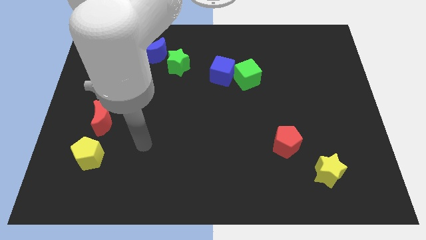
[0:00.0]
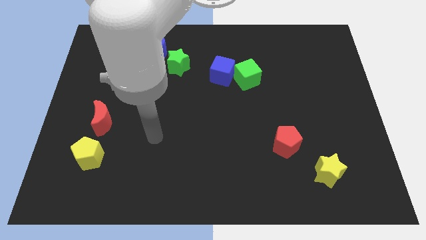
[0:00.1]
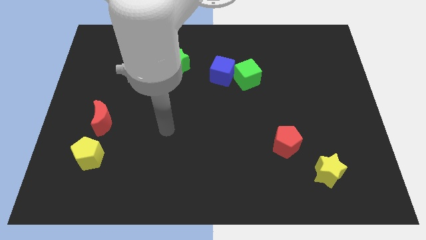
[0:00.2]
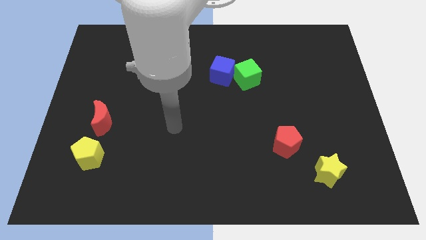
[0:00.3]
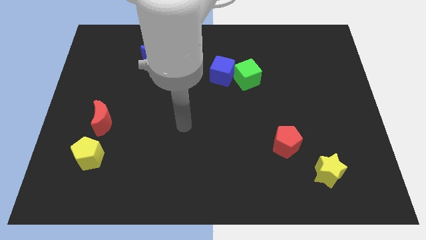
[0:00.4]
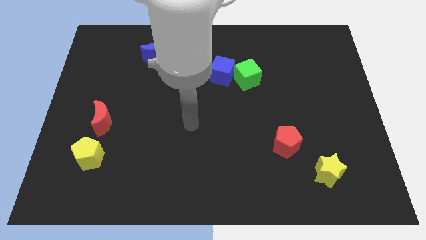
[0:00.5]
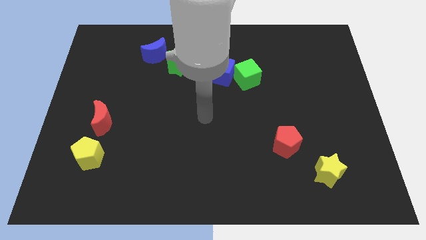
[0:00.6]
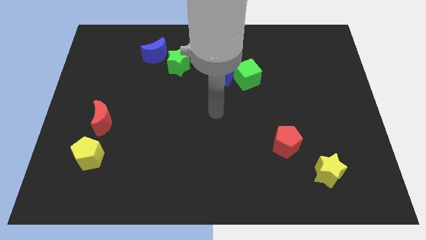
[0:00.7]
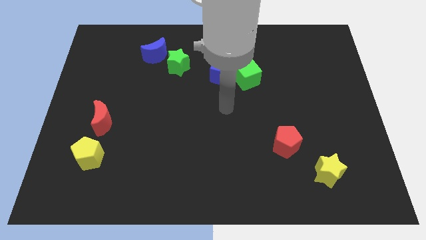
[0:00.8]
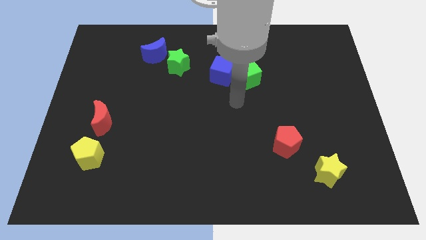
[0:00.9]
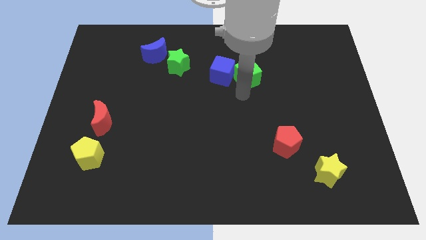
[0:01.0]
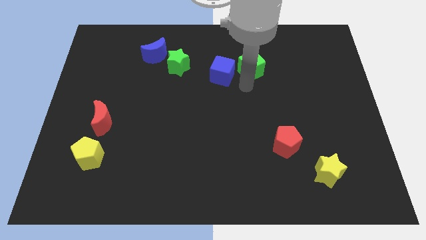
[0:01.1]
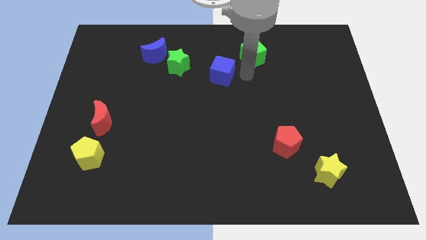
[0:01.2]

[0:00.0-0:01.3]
pull the blue cube apart from the green cube

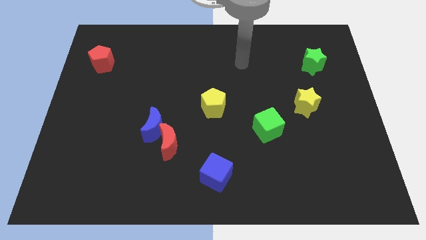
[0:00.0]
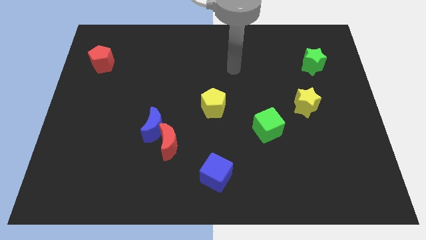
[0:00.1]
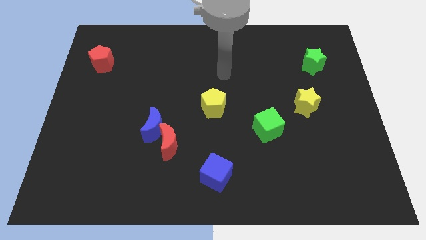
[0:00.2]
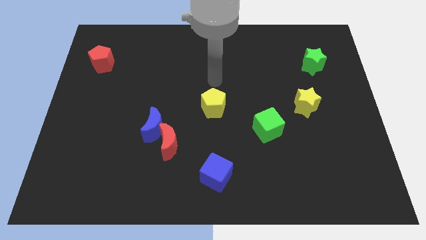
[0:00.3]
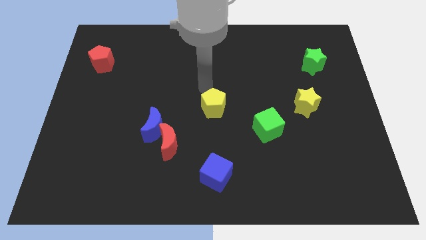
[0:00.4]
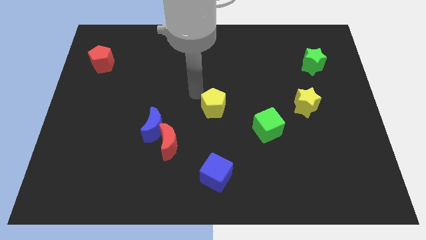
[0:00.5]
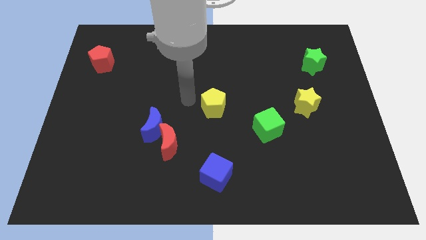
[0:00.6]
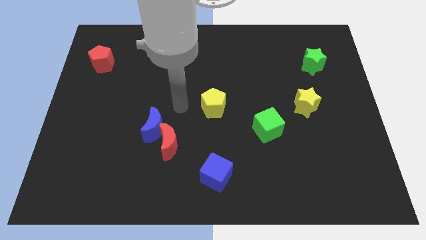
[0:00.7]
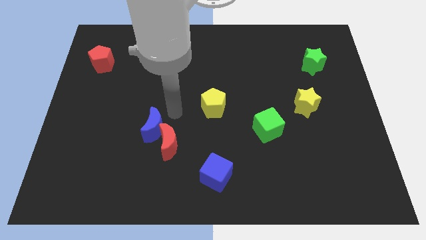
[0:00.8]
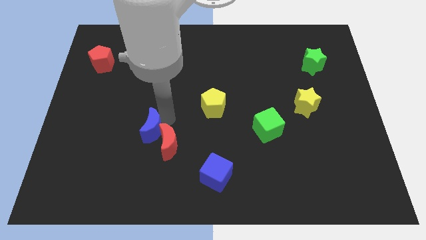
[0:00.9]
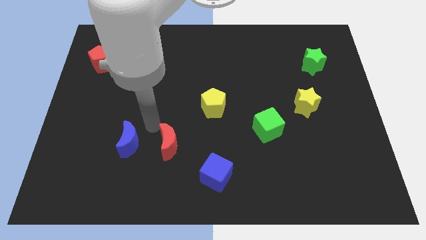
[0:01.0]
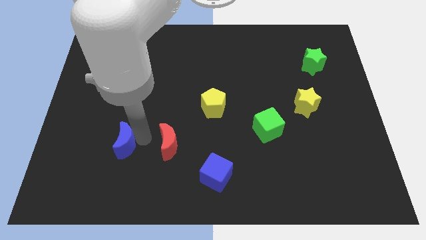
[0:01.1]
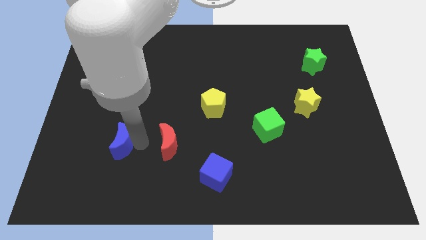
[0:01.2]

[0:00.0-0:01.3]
move the red moon away from the blue moon

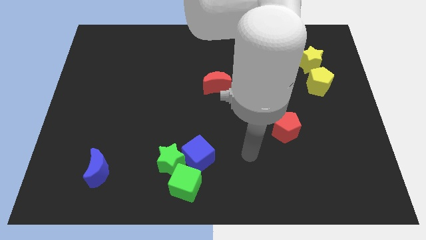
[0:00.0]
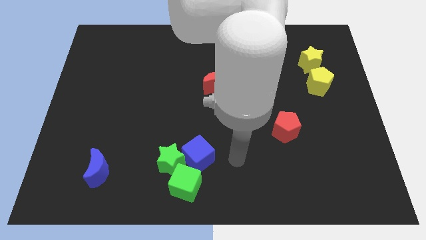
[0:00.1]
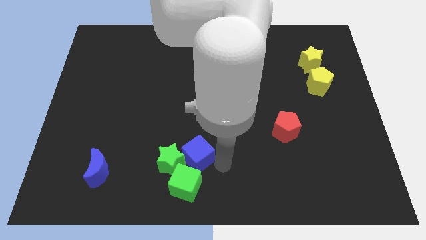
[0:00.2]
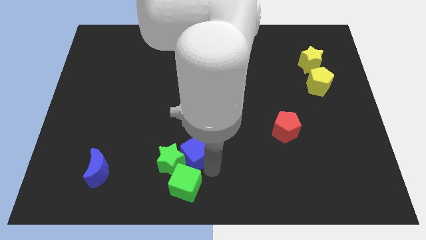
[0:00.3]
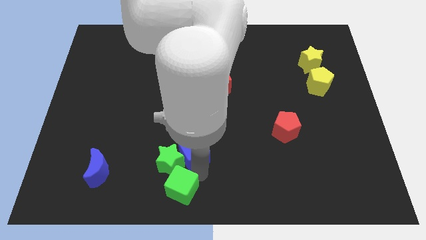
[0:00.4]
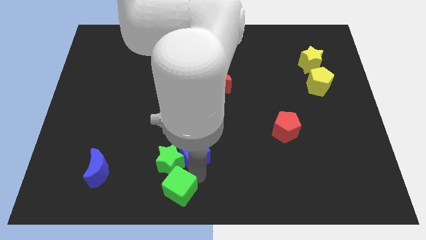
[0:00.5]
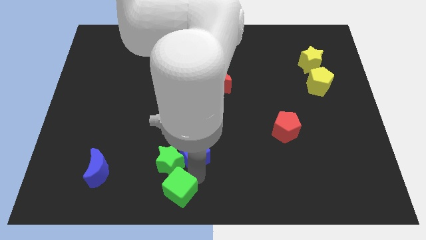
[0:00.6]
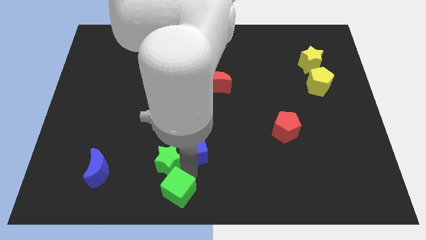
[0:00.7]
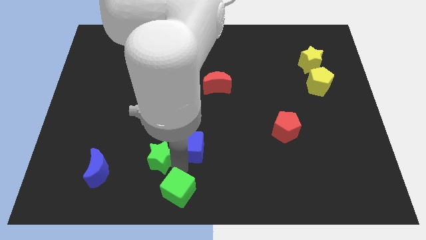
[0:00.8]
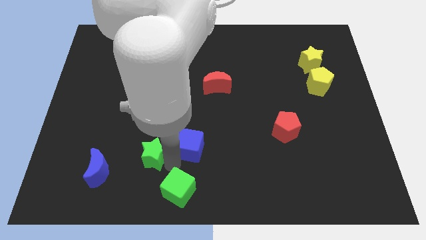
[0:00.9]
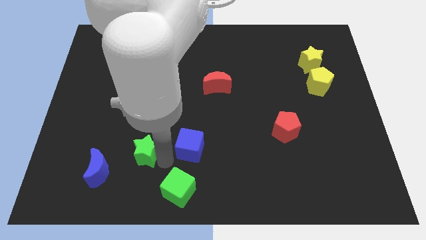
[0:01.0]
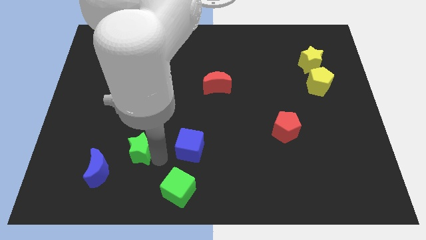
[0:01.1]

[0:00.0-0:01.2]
separate the green star from the blue cube and green cube

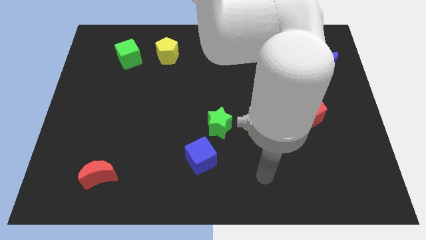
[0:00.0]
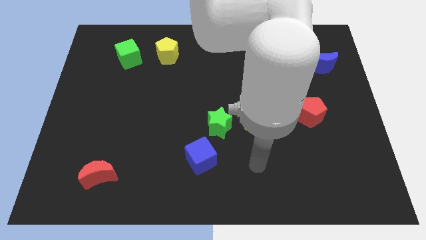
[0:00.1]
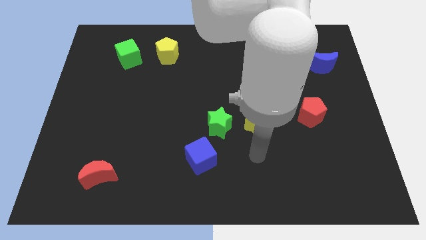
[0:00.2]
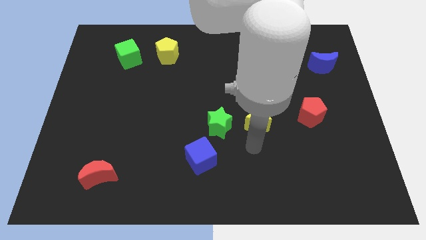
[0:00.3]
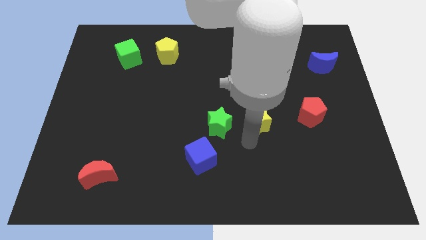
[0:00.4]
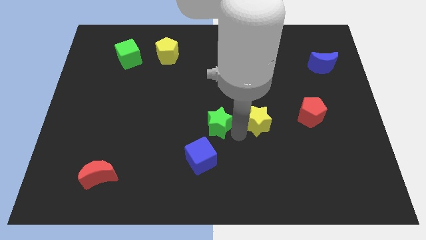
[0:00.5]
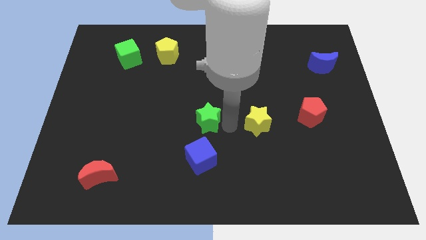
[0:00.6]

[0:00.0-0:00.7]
move the yellow star away from the green star

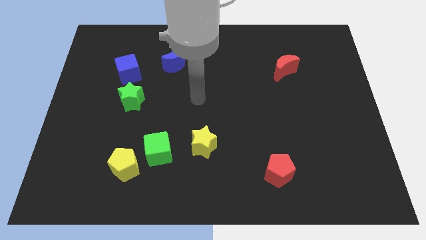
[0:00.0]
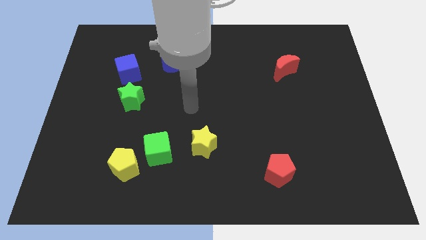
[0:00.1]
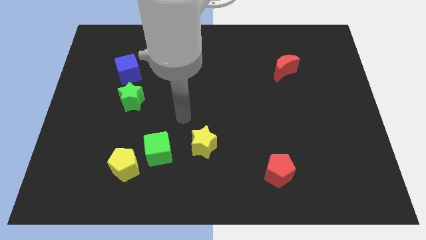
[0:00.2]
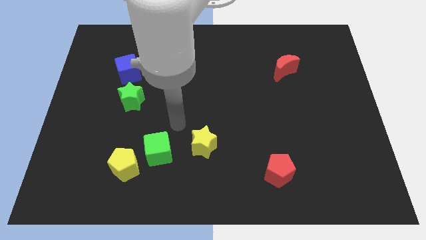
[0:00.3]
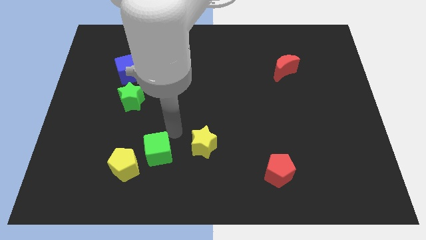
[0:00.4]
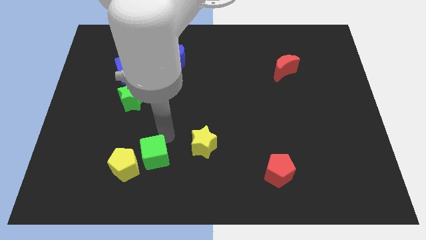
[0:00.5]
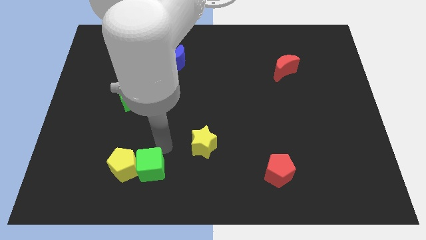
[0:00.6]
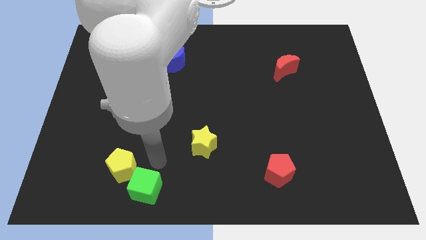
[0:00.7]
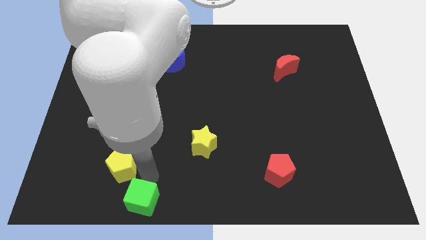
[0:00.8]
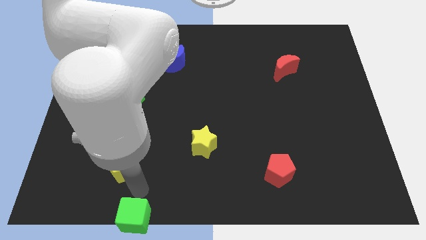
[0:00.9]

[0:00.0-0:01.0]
pull the yellow pentagon apart from the green cube

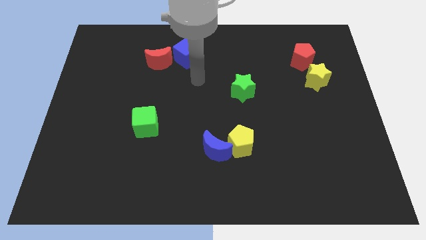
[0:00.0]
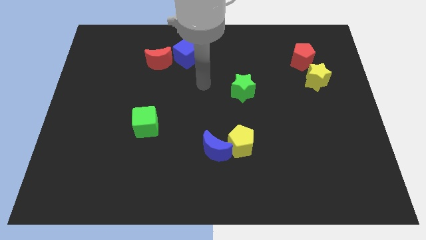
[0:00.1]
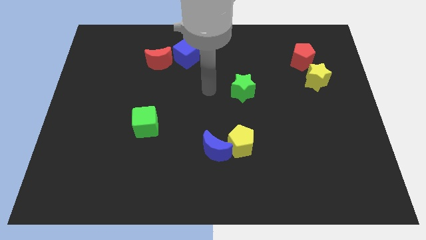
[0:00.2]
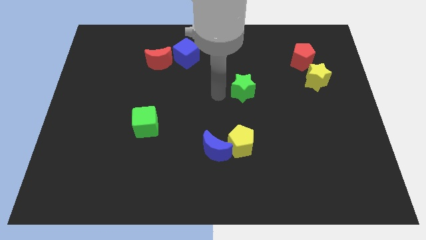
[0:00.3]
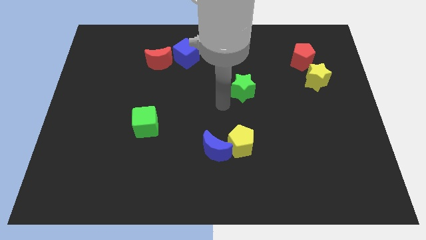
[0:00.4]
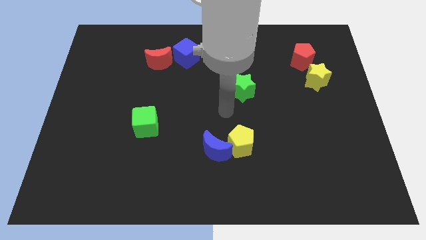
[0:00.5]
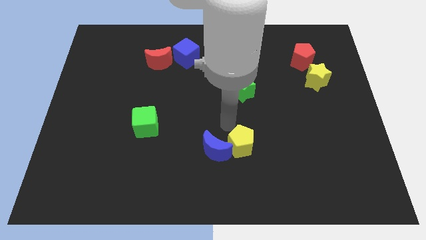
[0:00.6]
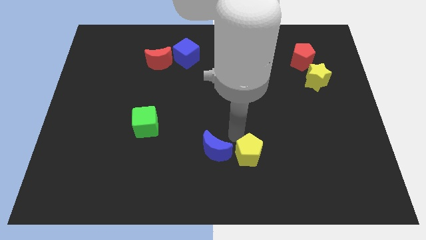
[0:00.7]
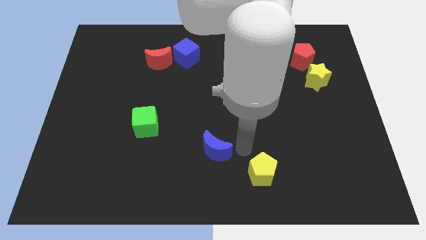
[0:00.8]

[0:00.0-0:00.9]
move the blue moon away from the yellow pentagon

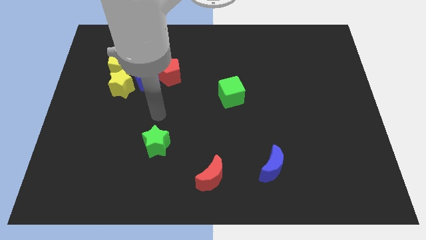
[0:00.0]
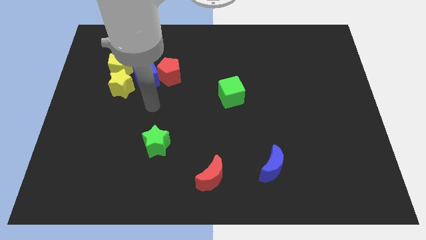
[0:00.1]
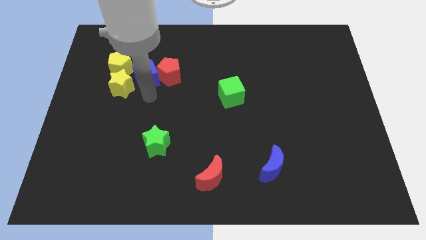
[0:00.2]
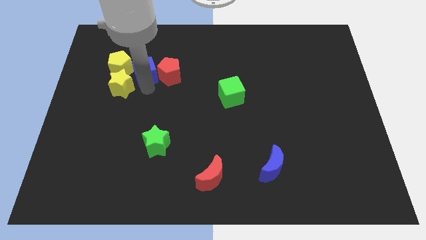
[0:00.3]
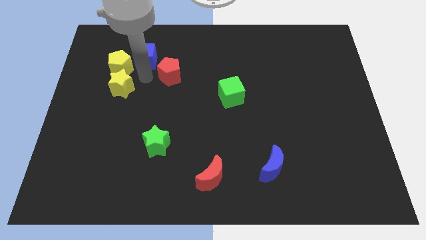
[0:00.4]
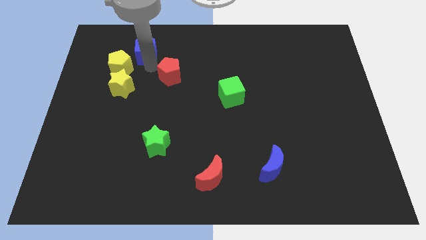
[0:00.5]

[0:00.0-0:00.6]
move the red pentagon away from the blue cube

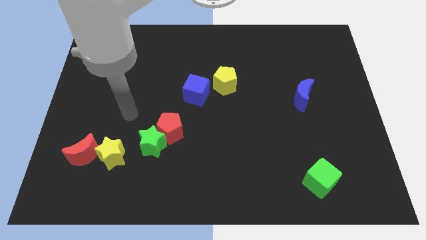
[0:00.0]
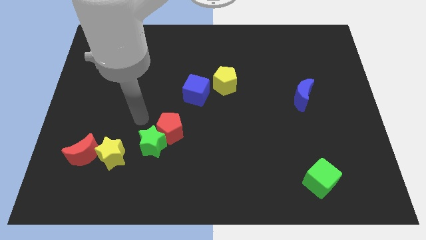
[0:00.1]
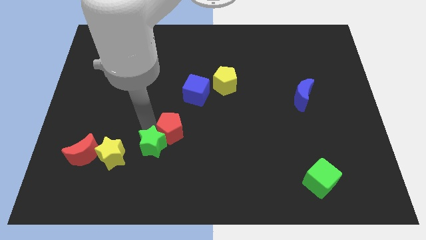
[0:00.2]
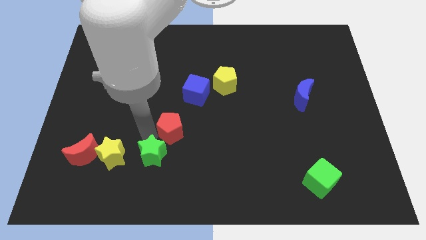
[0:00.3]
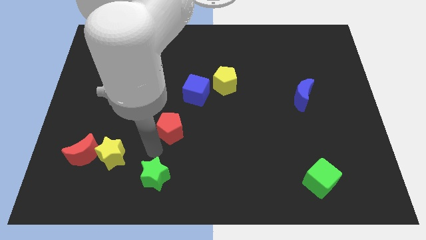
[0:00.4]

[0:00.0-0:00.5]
pull the red pentagon apart from the green star

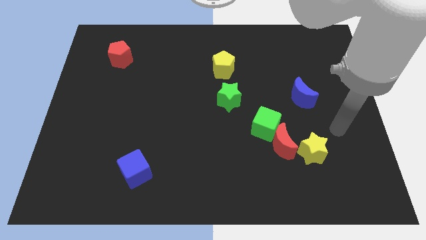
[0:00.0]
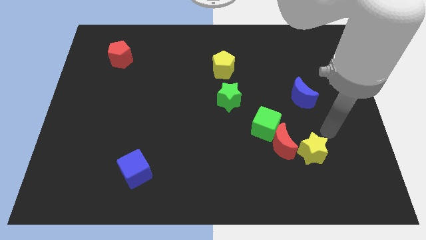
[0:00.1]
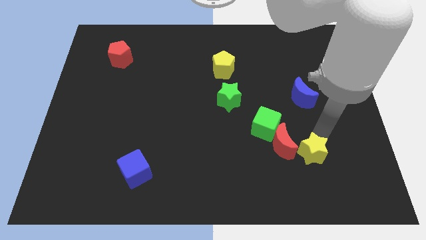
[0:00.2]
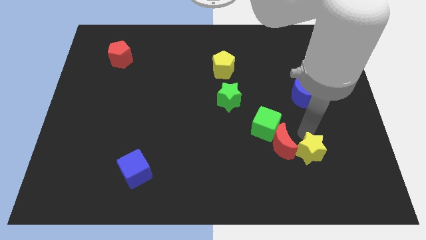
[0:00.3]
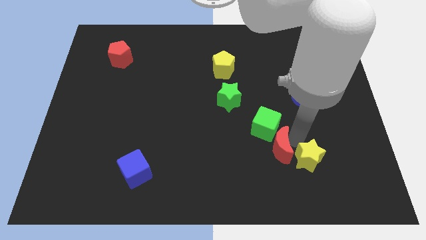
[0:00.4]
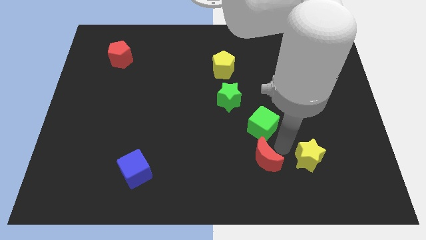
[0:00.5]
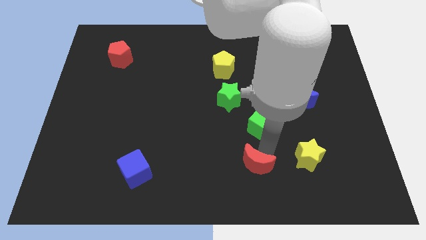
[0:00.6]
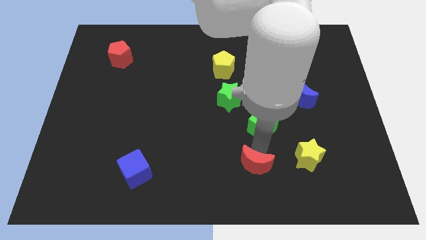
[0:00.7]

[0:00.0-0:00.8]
pull the green cube apart from the red moon

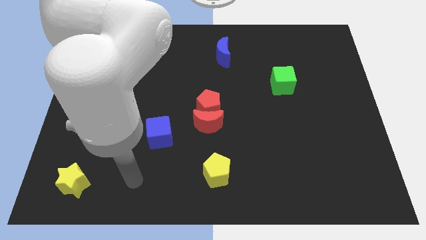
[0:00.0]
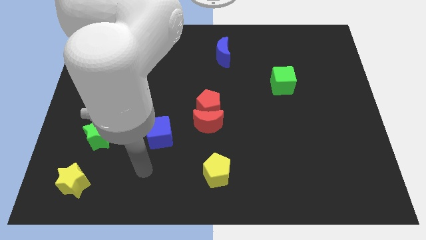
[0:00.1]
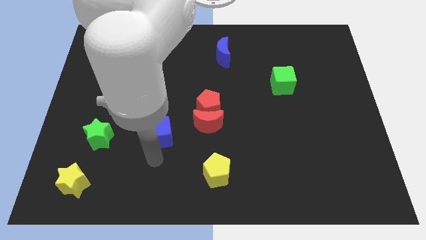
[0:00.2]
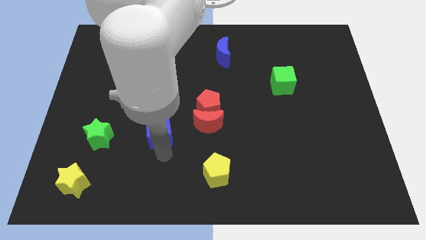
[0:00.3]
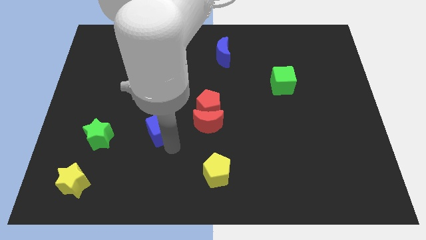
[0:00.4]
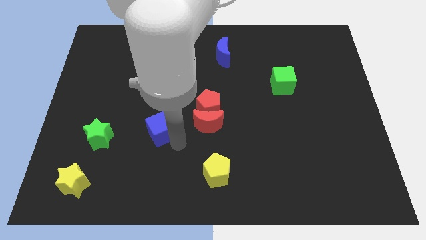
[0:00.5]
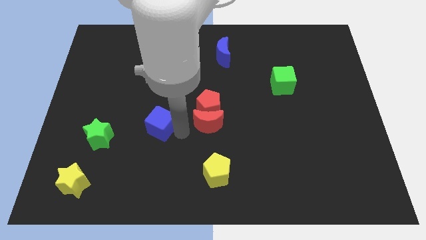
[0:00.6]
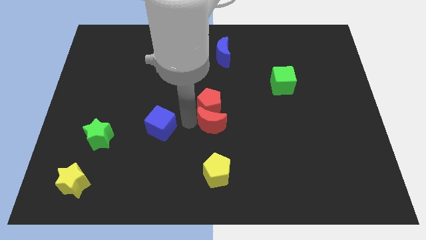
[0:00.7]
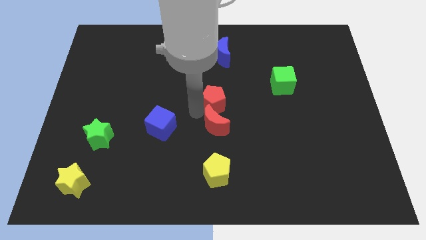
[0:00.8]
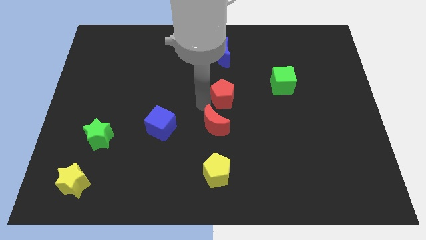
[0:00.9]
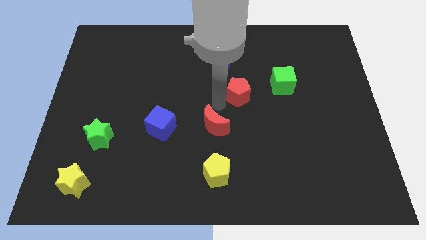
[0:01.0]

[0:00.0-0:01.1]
pull the red moon apart from the red pentagon

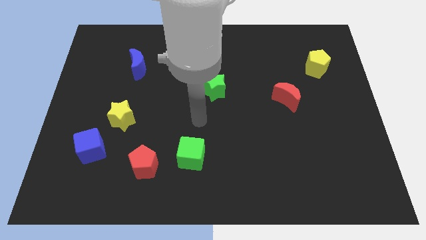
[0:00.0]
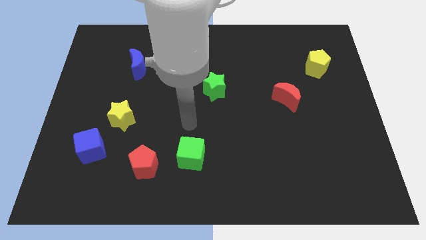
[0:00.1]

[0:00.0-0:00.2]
pull the blue cube apart from the yellow star
